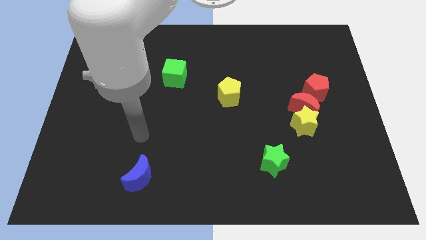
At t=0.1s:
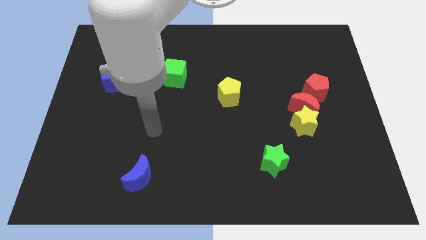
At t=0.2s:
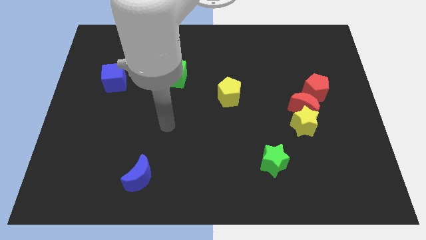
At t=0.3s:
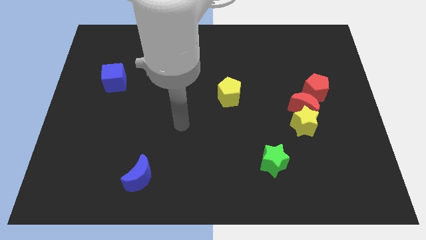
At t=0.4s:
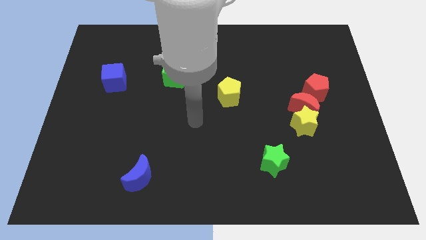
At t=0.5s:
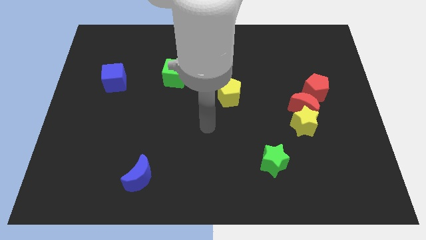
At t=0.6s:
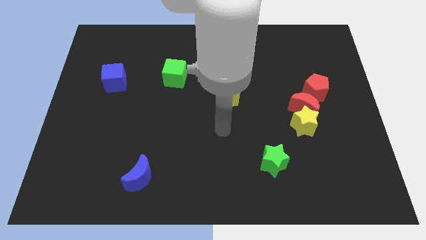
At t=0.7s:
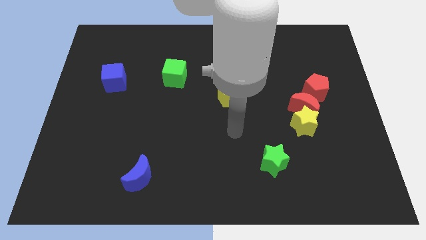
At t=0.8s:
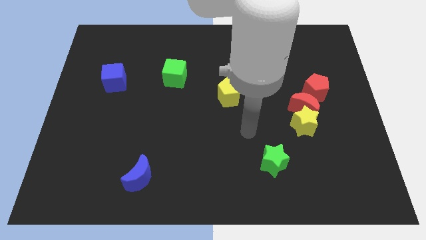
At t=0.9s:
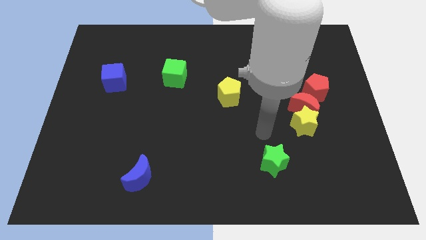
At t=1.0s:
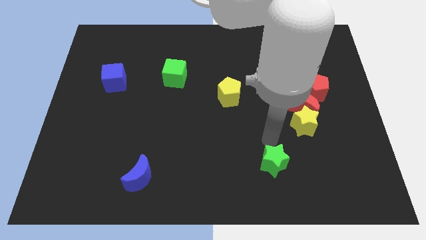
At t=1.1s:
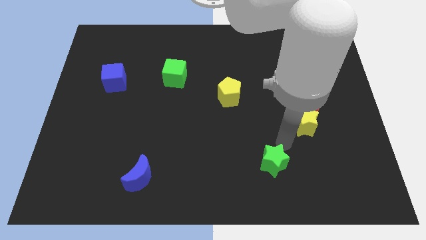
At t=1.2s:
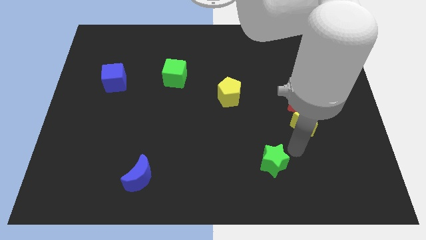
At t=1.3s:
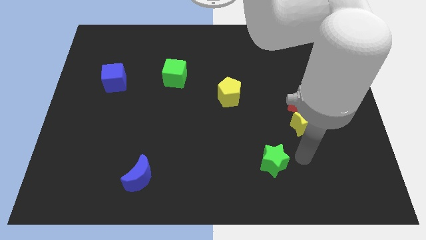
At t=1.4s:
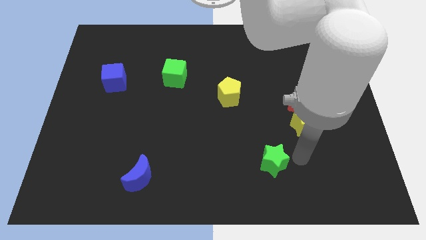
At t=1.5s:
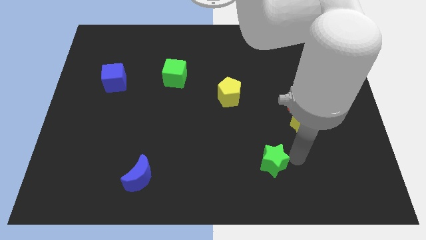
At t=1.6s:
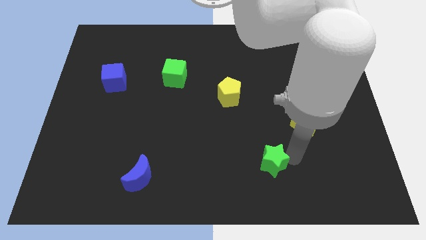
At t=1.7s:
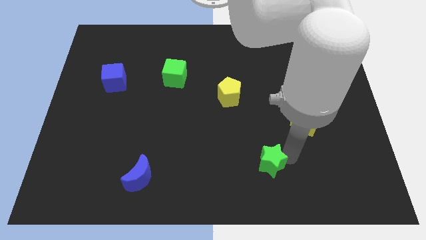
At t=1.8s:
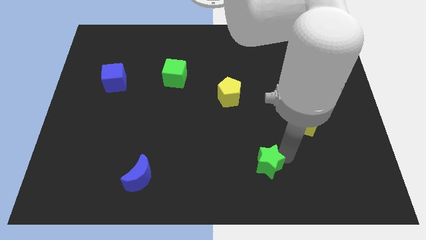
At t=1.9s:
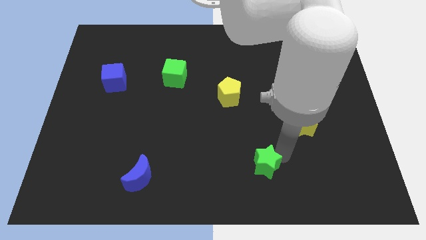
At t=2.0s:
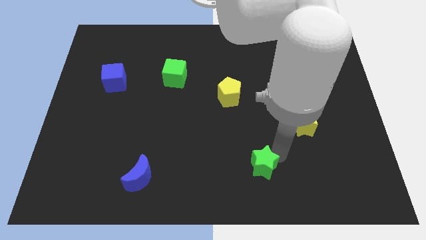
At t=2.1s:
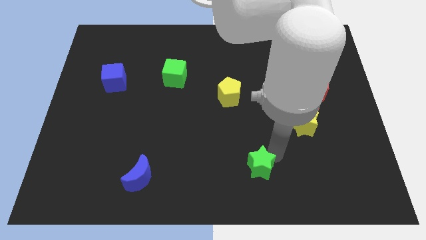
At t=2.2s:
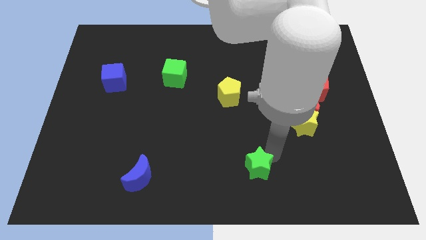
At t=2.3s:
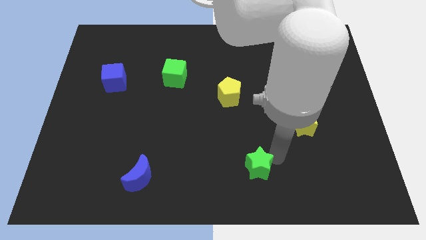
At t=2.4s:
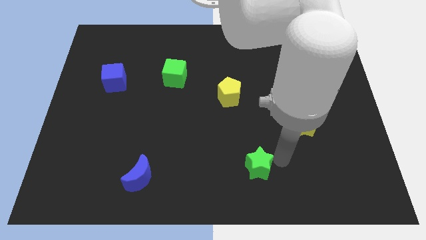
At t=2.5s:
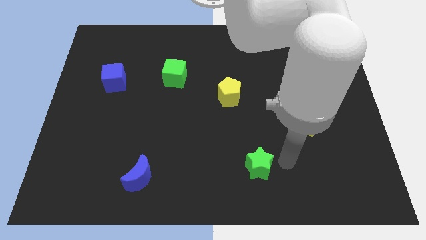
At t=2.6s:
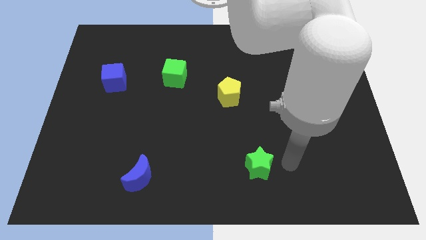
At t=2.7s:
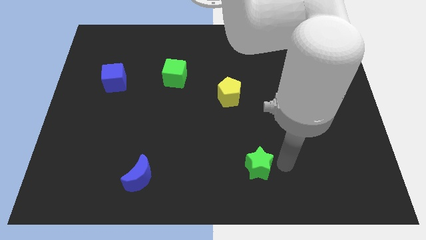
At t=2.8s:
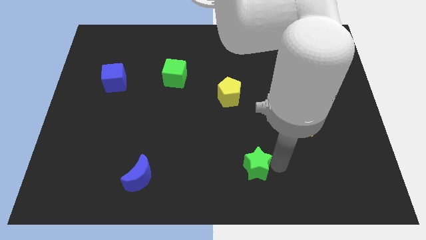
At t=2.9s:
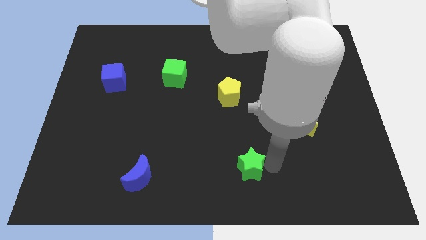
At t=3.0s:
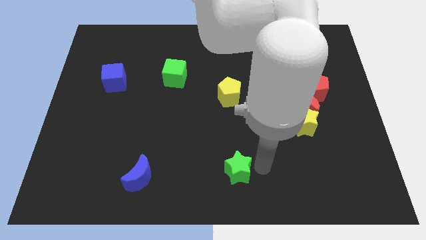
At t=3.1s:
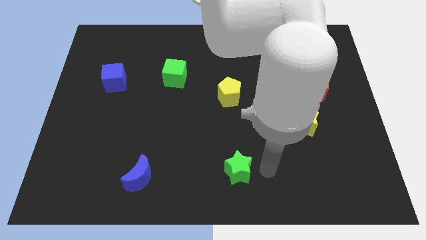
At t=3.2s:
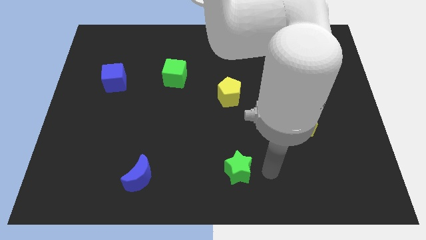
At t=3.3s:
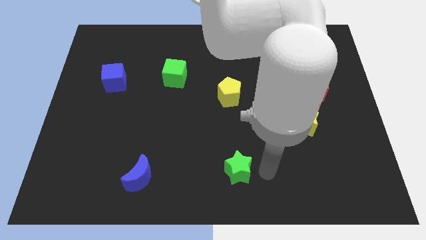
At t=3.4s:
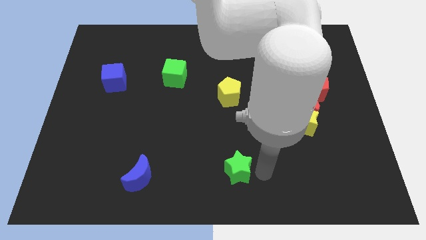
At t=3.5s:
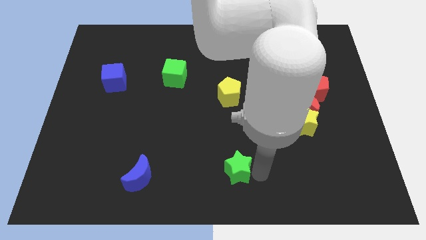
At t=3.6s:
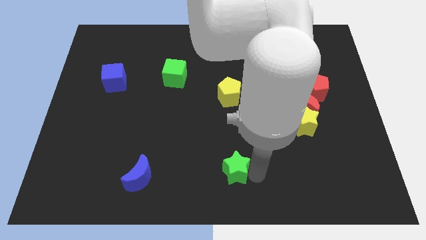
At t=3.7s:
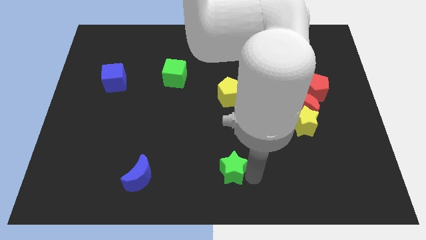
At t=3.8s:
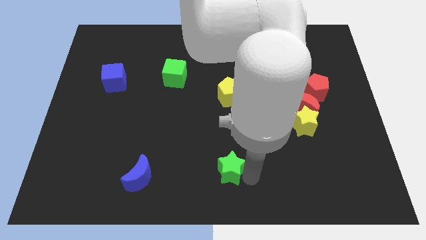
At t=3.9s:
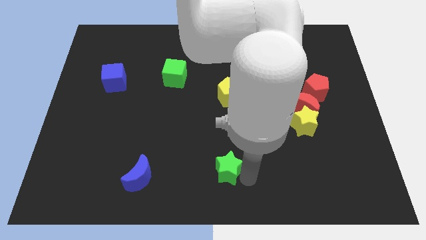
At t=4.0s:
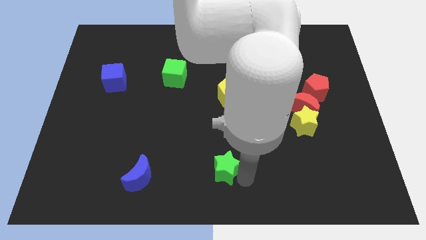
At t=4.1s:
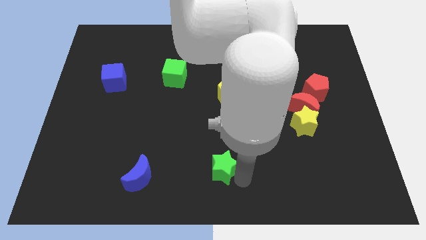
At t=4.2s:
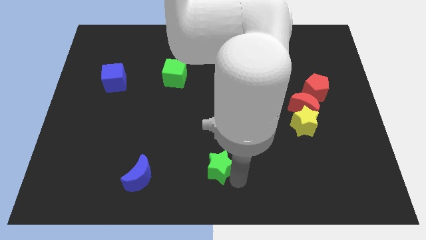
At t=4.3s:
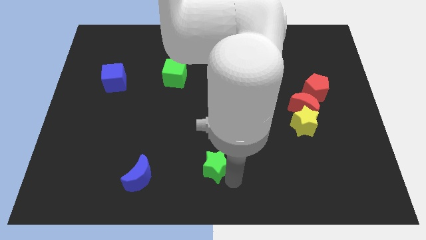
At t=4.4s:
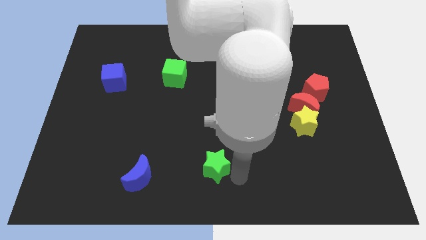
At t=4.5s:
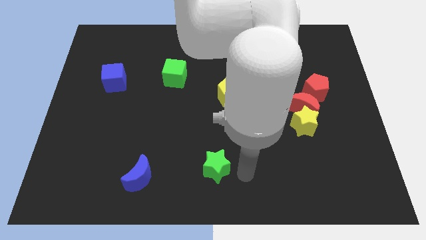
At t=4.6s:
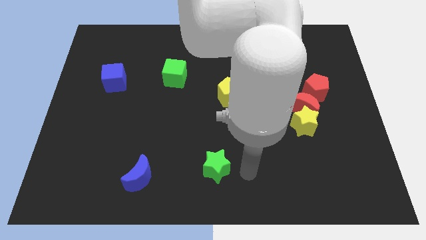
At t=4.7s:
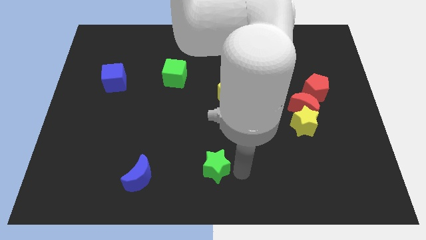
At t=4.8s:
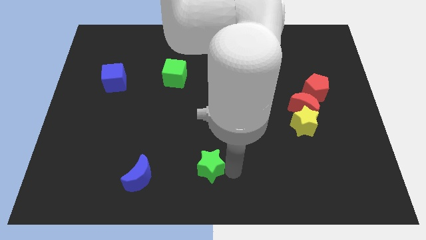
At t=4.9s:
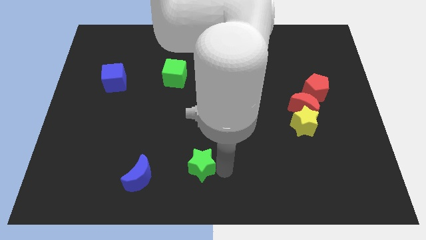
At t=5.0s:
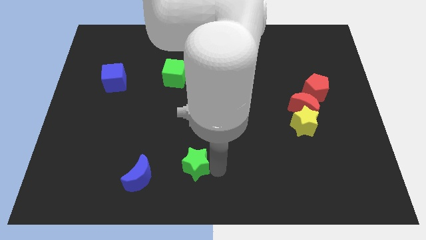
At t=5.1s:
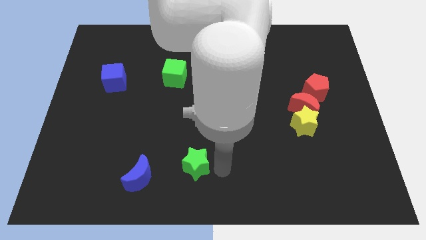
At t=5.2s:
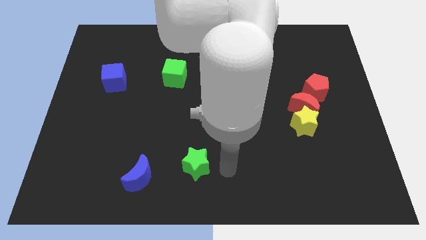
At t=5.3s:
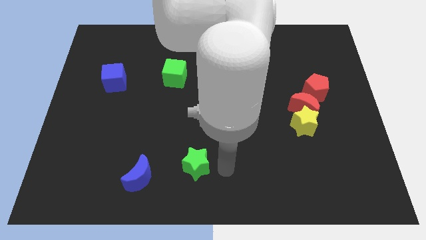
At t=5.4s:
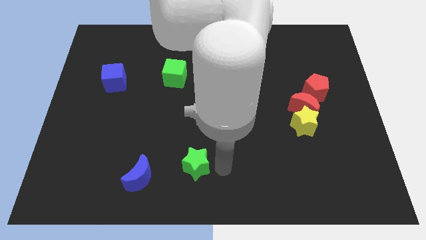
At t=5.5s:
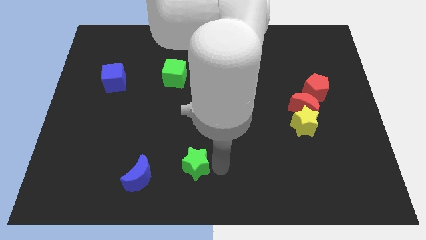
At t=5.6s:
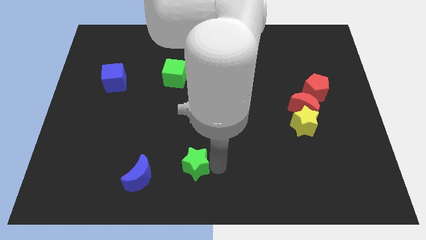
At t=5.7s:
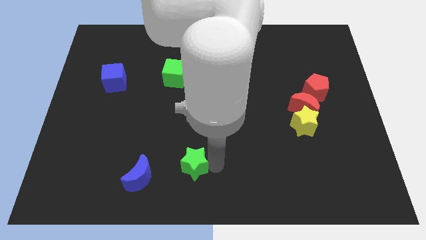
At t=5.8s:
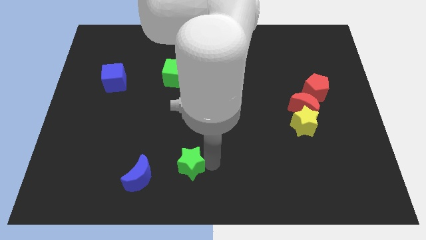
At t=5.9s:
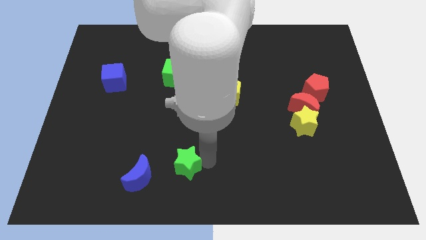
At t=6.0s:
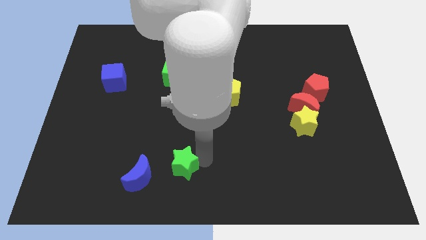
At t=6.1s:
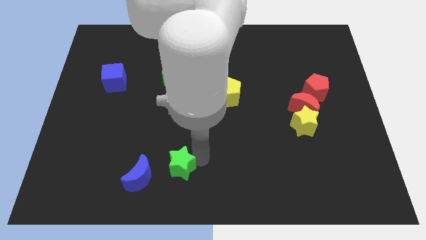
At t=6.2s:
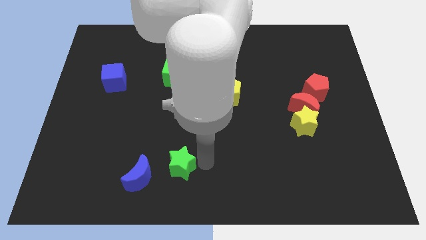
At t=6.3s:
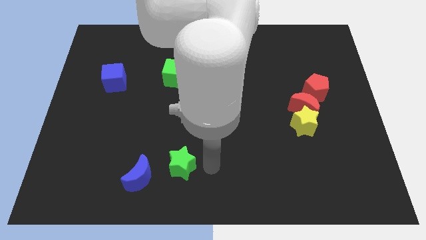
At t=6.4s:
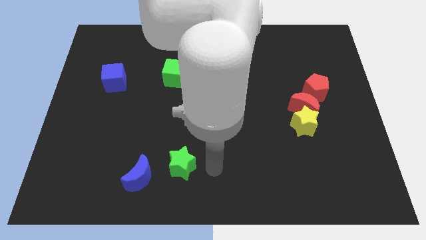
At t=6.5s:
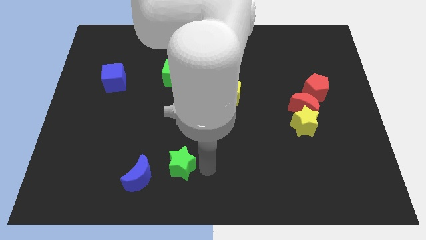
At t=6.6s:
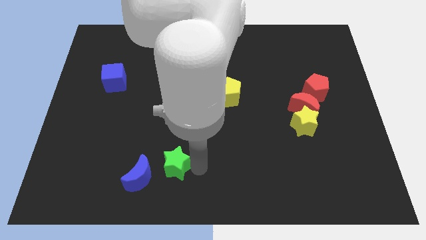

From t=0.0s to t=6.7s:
push the green star to the left

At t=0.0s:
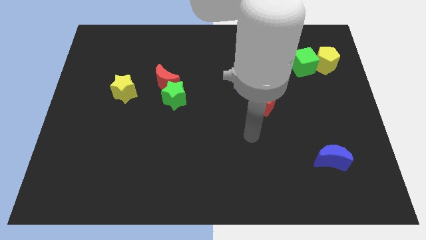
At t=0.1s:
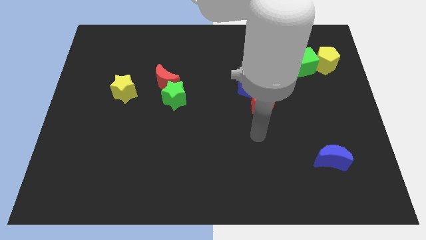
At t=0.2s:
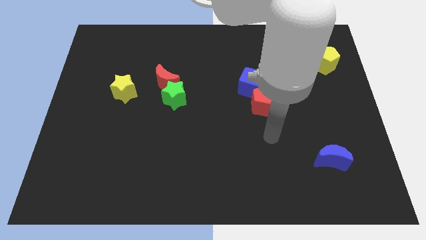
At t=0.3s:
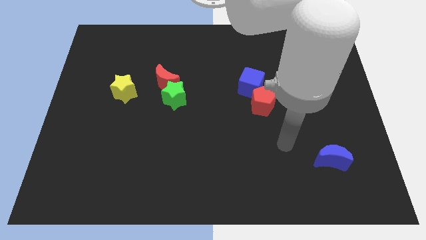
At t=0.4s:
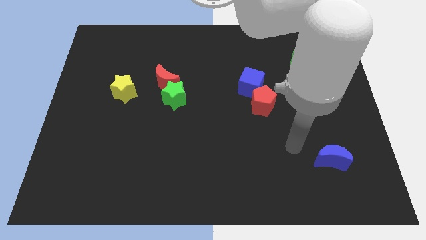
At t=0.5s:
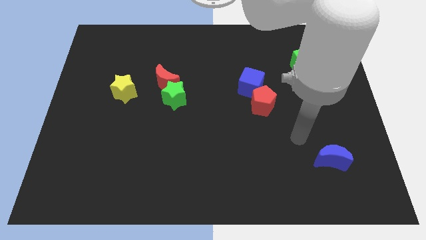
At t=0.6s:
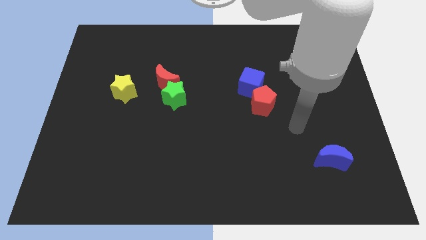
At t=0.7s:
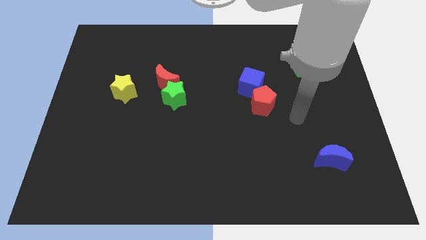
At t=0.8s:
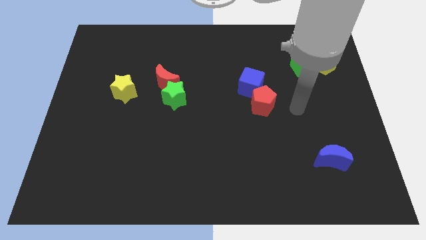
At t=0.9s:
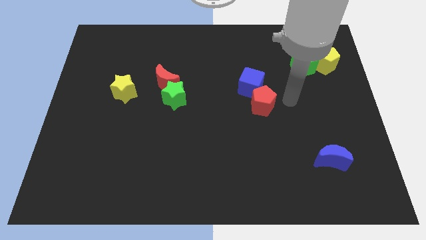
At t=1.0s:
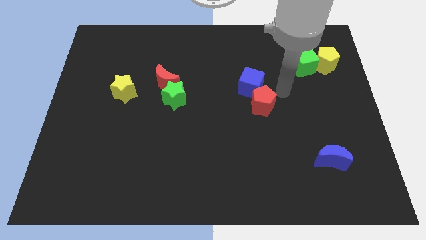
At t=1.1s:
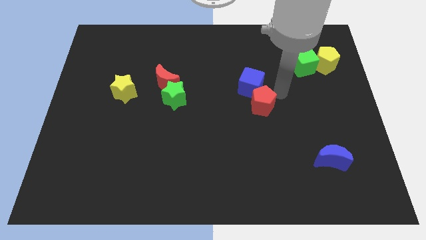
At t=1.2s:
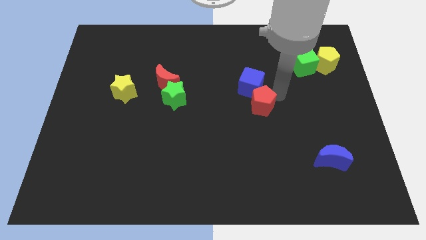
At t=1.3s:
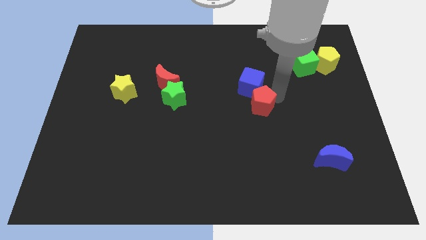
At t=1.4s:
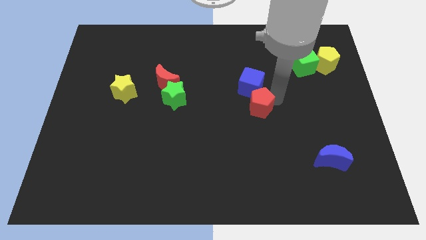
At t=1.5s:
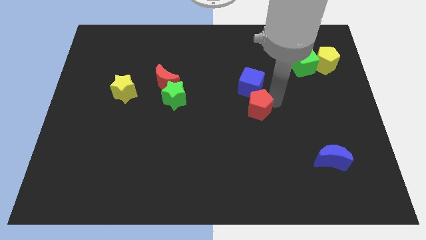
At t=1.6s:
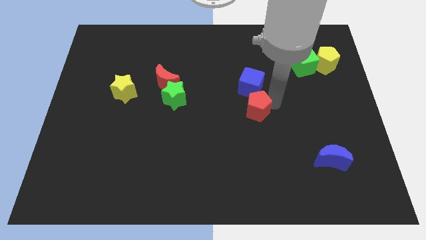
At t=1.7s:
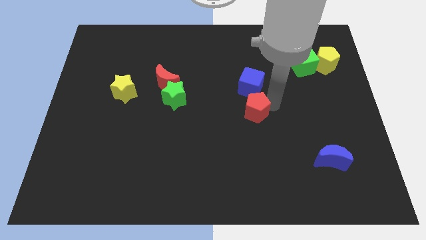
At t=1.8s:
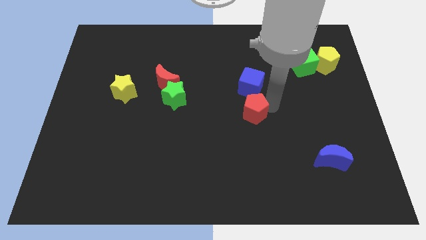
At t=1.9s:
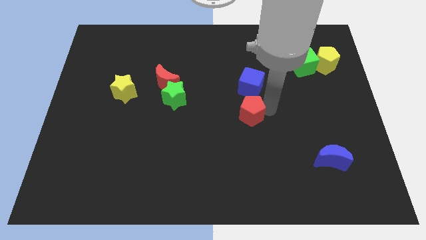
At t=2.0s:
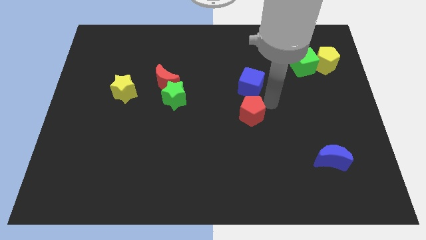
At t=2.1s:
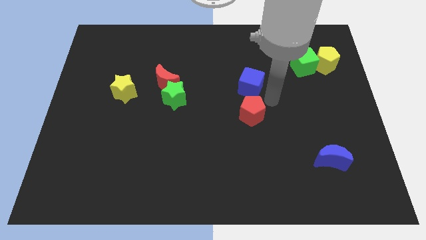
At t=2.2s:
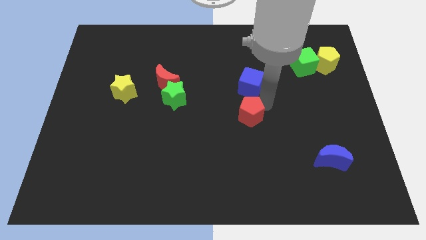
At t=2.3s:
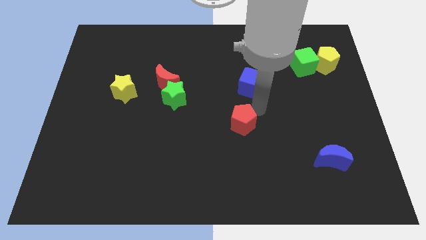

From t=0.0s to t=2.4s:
move the red pentagon somewhat diagonally down and left
